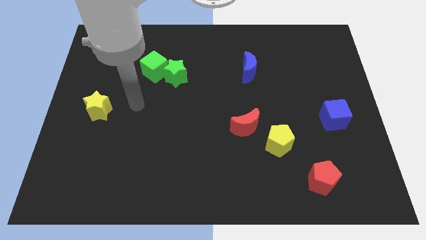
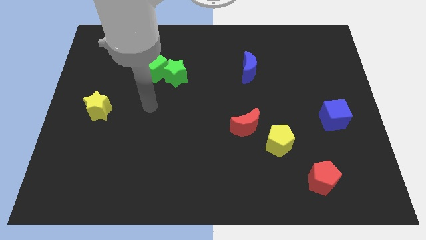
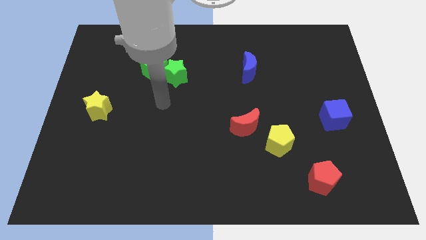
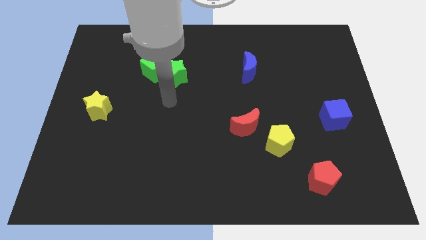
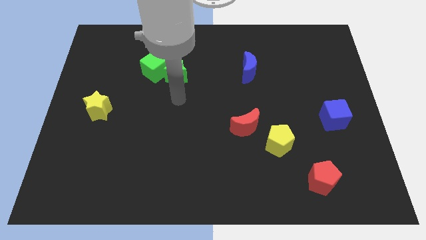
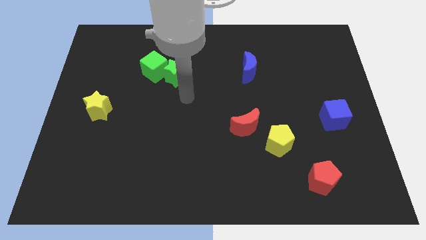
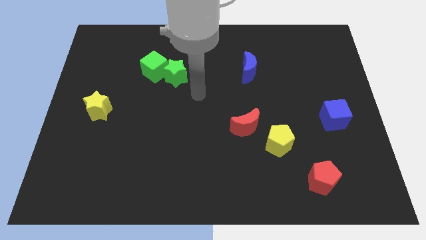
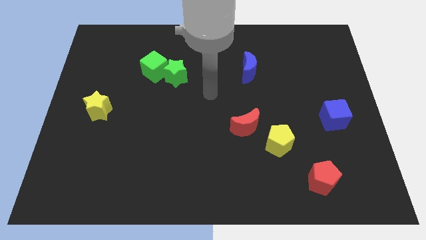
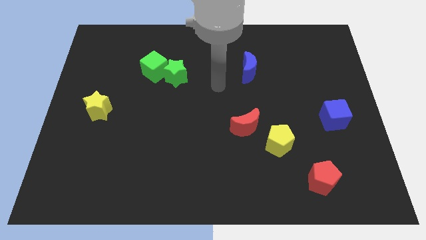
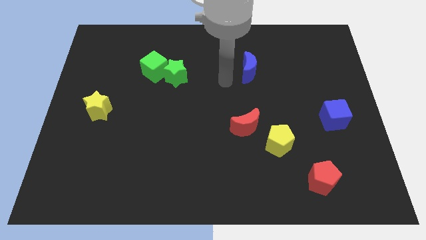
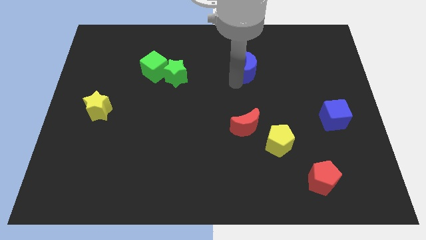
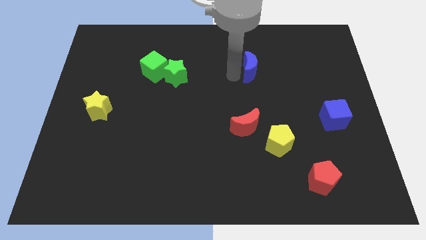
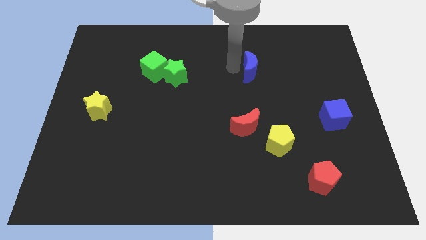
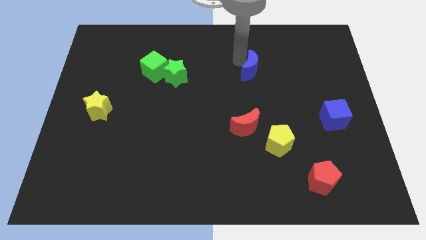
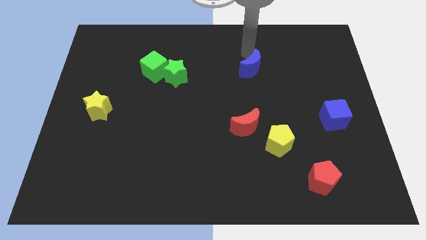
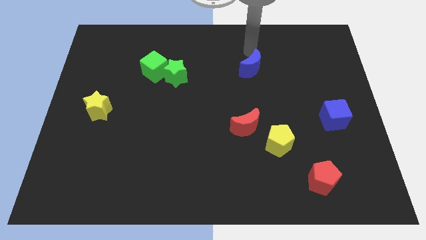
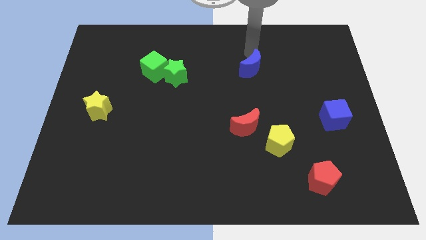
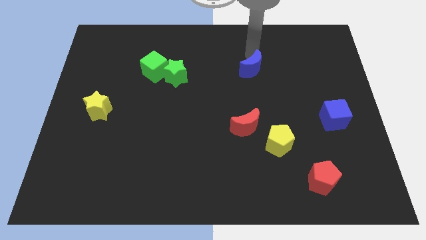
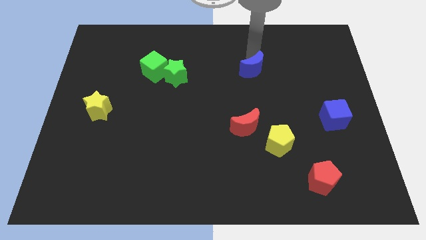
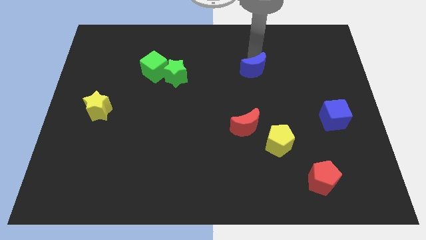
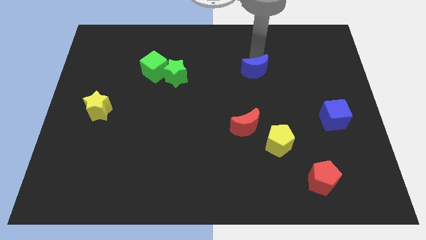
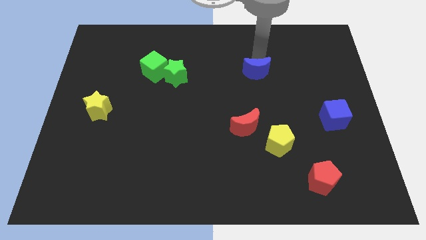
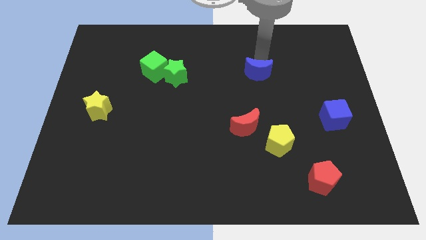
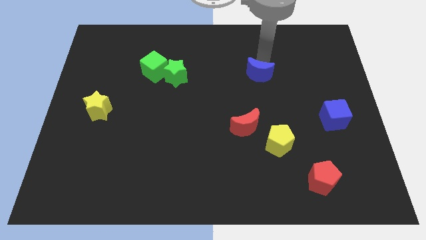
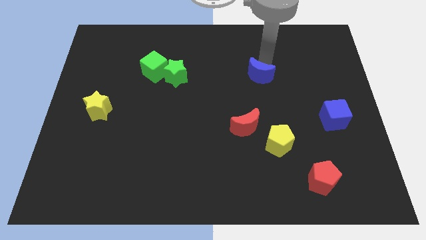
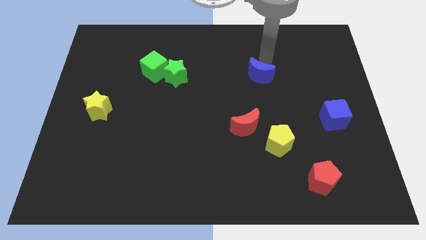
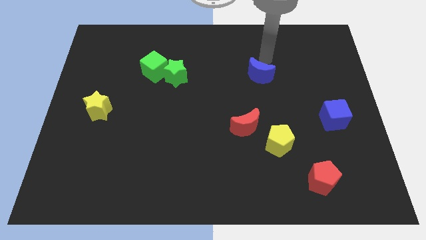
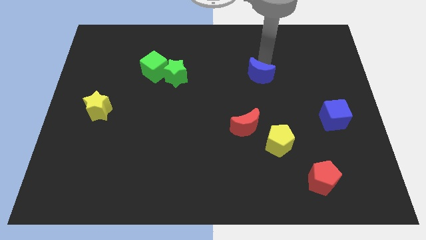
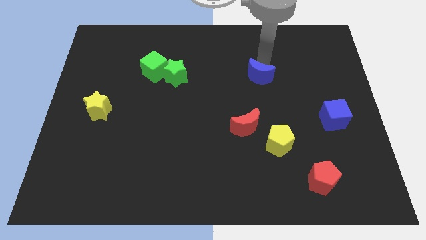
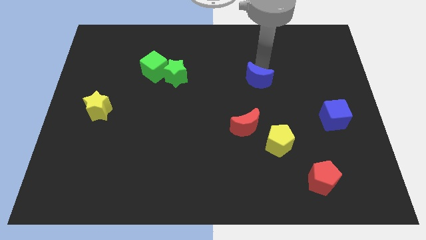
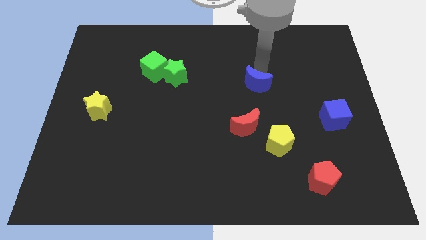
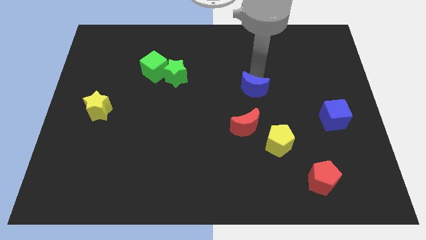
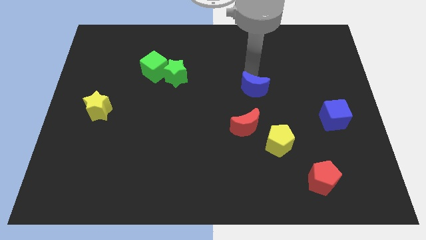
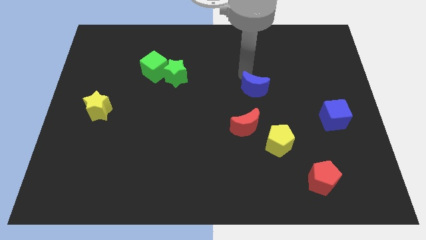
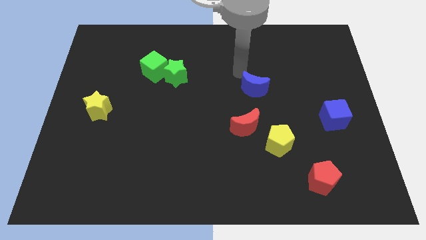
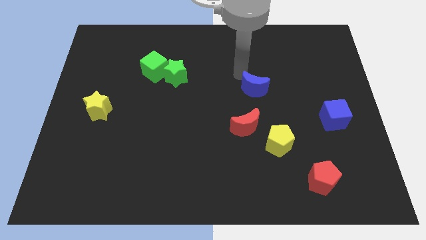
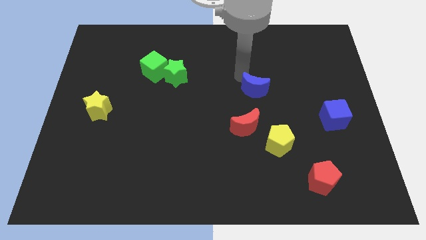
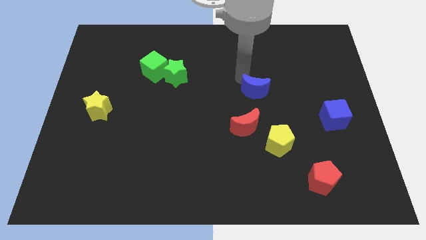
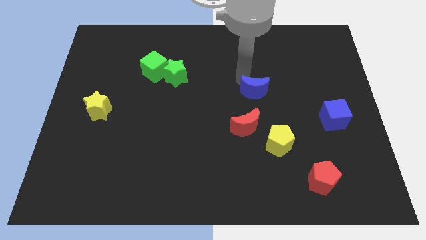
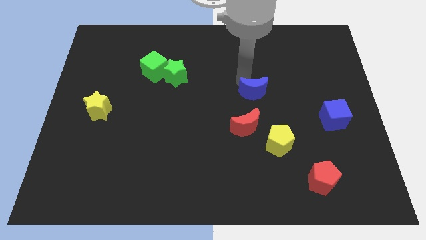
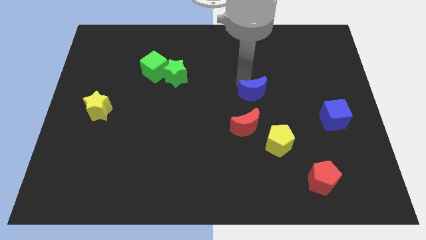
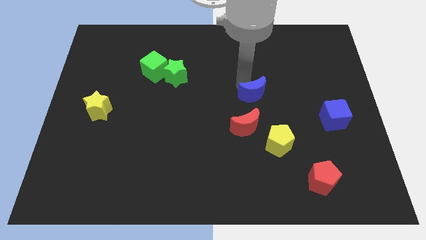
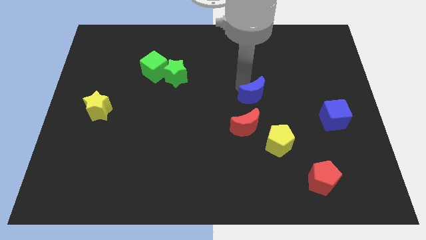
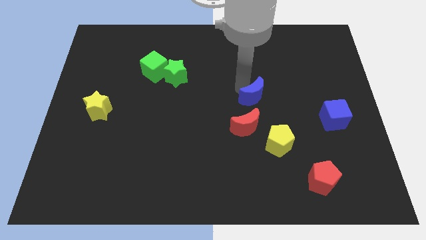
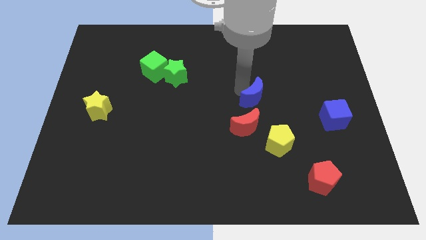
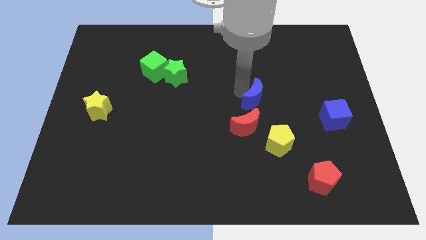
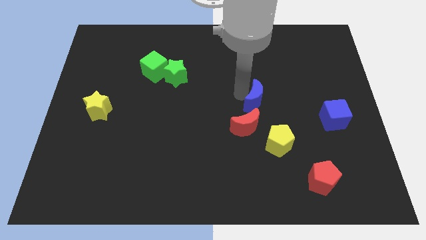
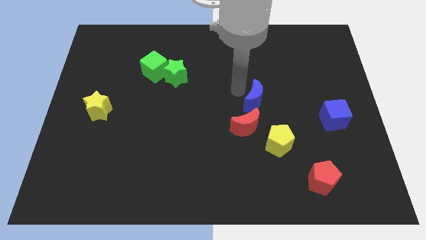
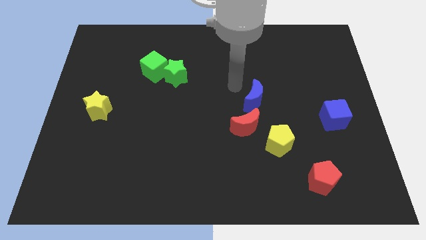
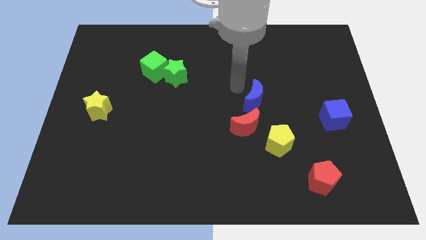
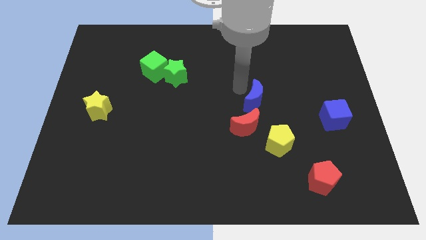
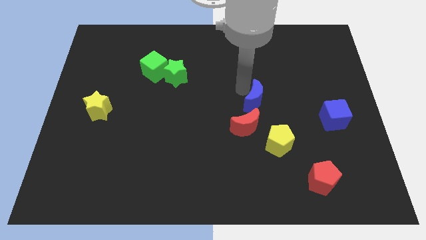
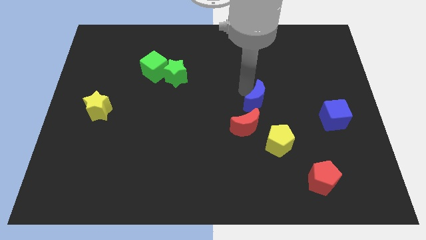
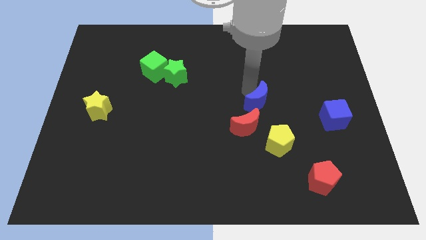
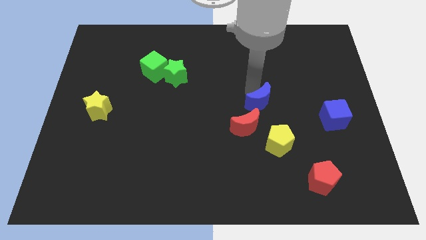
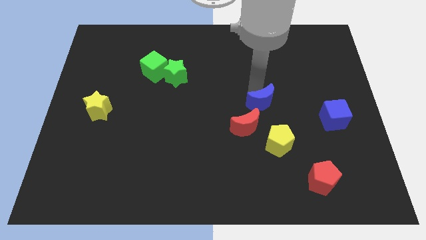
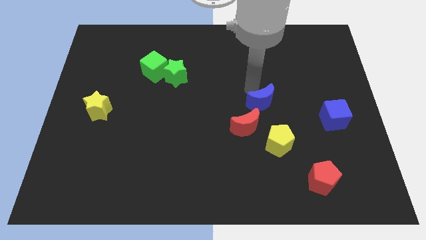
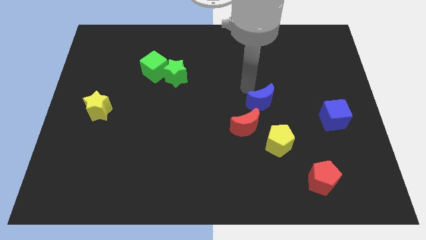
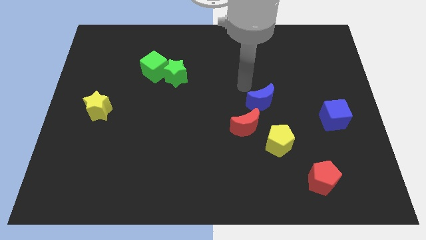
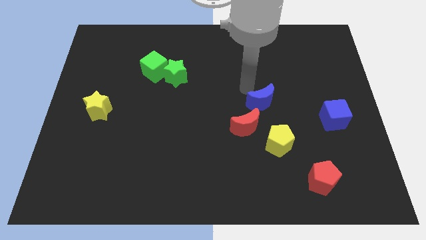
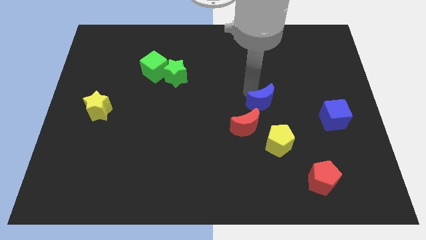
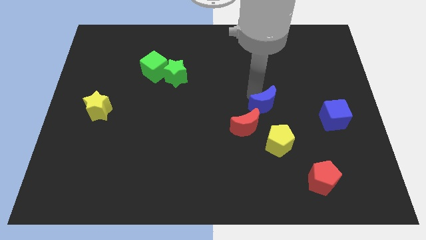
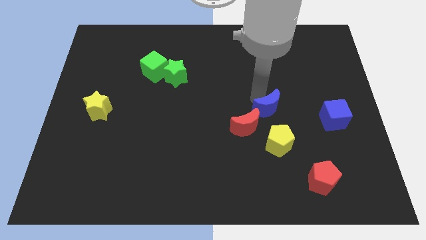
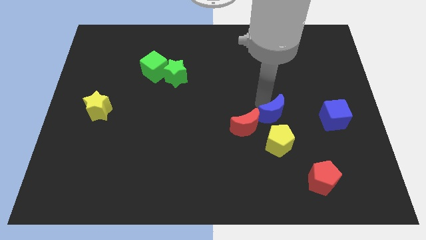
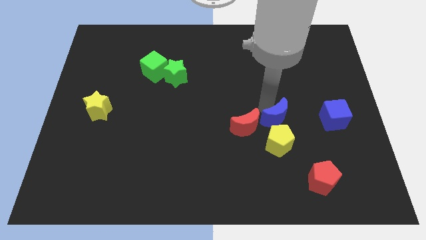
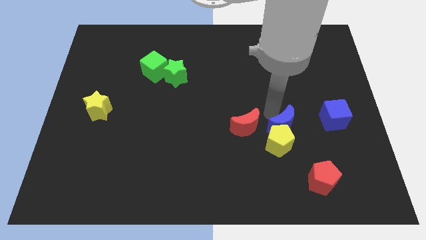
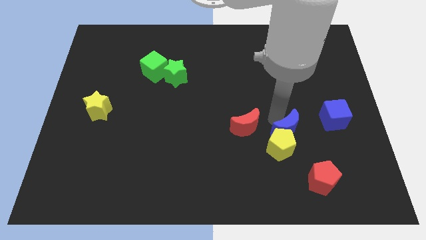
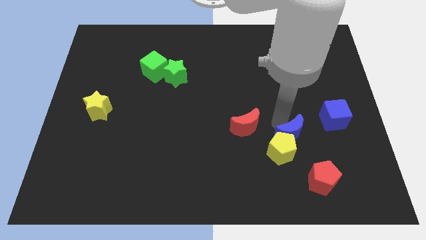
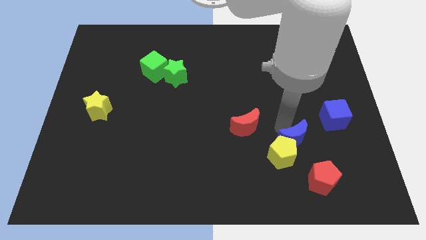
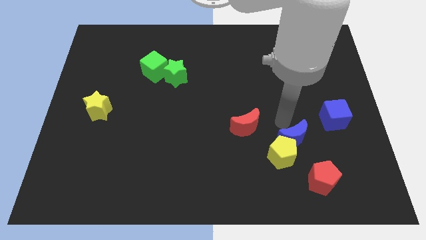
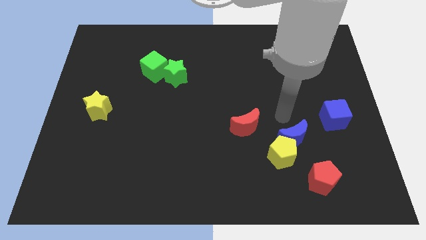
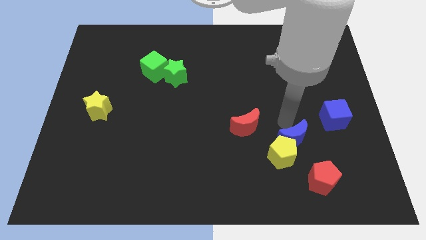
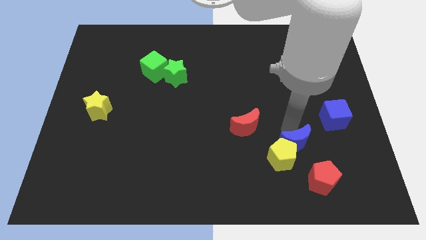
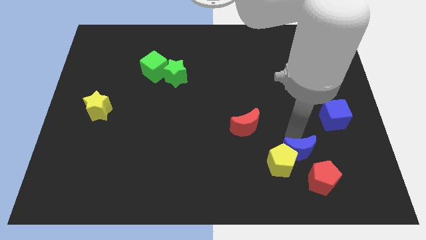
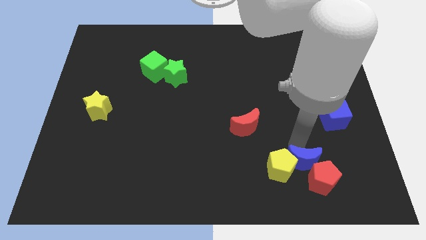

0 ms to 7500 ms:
move the blue moon to the bottom right of the yellow pentagon
